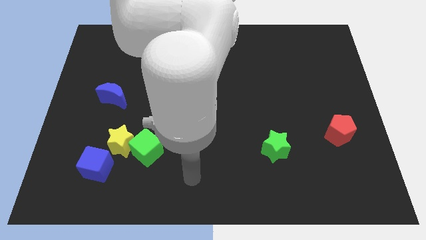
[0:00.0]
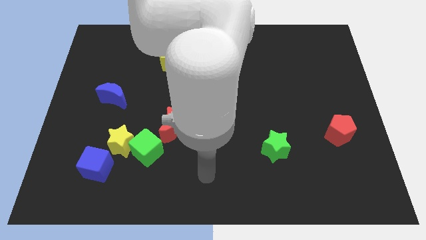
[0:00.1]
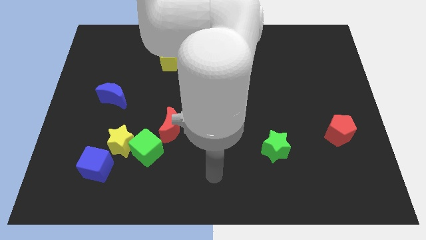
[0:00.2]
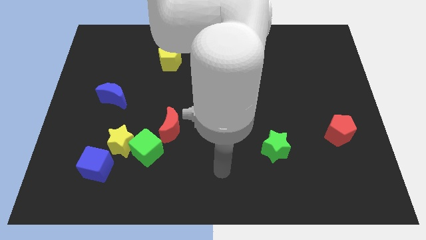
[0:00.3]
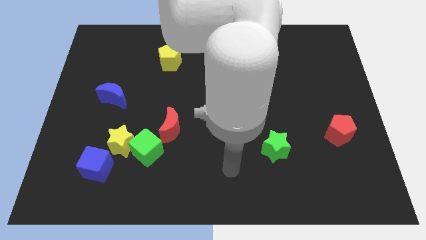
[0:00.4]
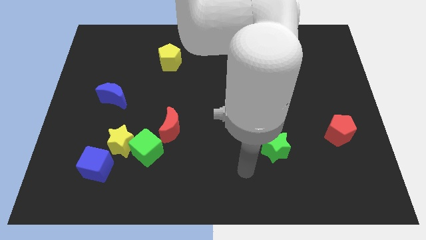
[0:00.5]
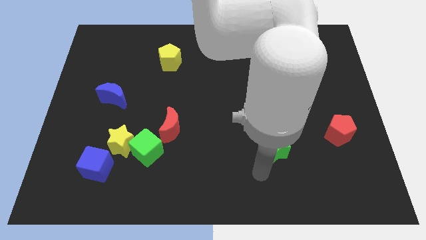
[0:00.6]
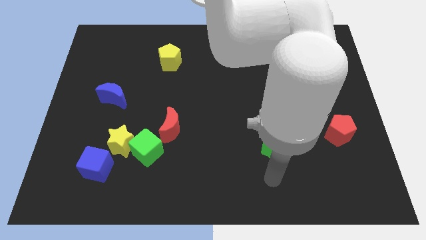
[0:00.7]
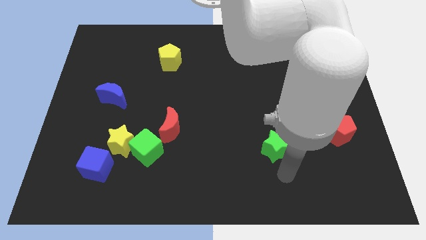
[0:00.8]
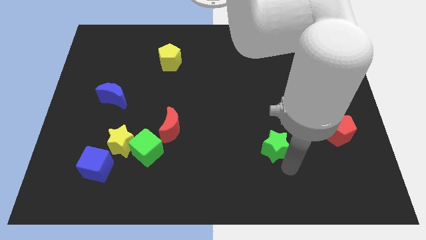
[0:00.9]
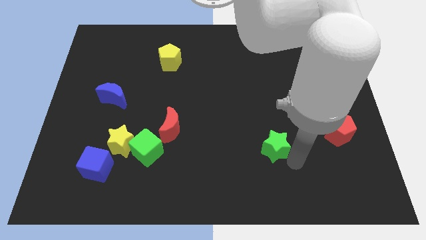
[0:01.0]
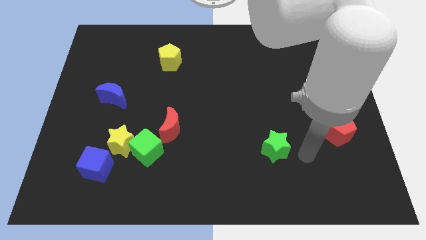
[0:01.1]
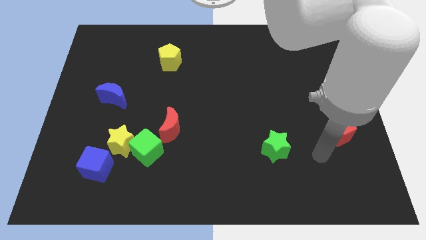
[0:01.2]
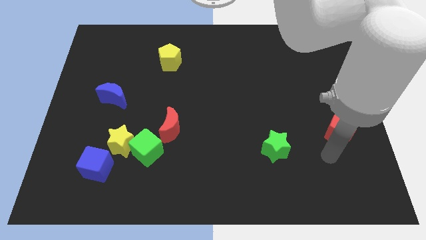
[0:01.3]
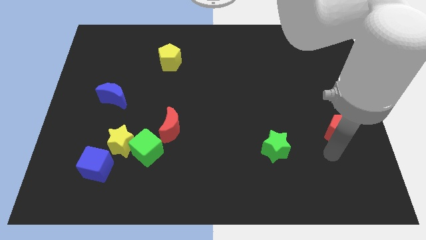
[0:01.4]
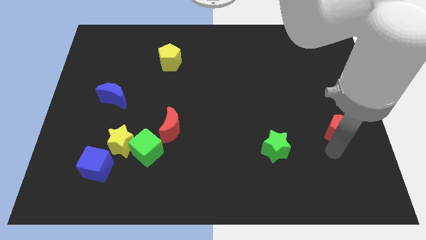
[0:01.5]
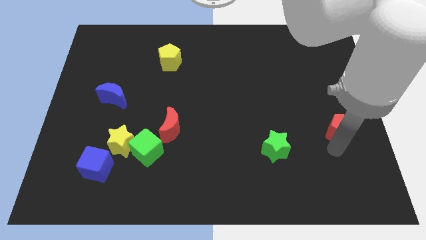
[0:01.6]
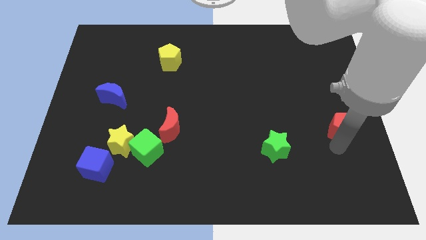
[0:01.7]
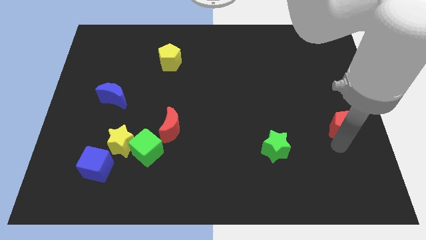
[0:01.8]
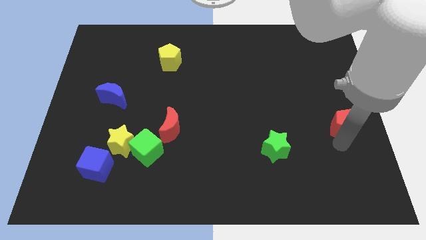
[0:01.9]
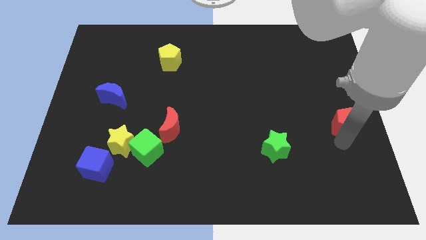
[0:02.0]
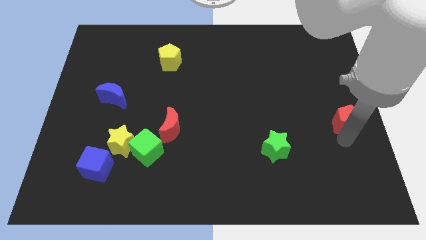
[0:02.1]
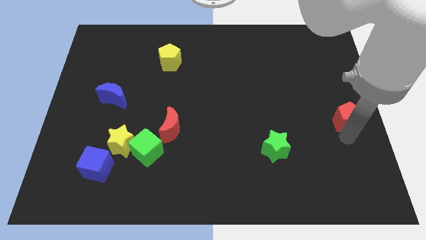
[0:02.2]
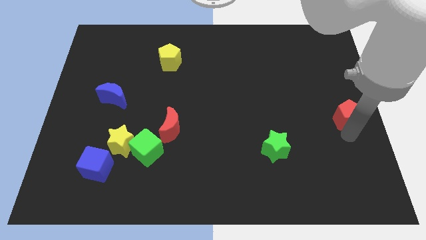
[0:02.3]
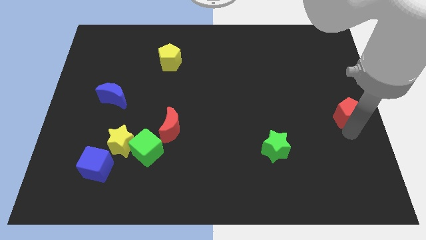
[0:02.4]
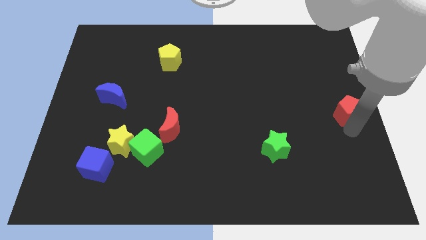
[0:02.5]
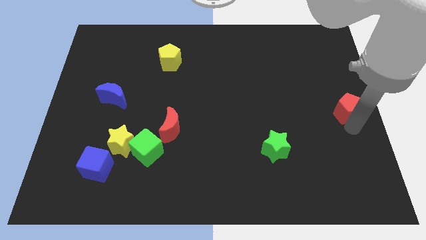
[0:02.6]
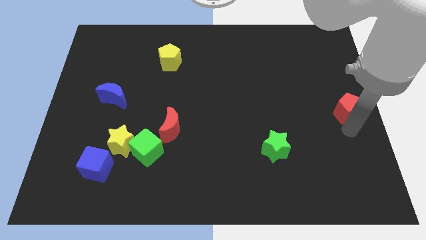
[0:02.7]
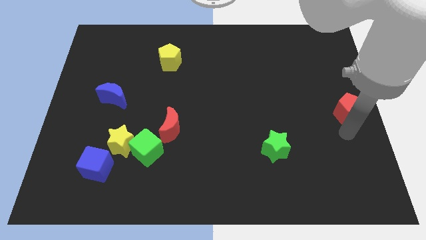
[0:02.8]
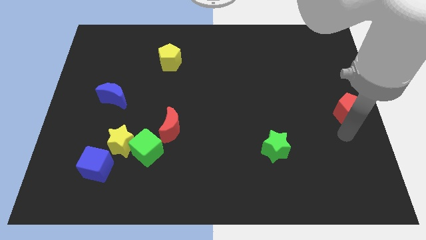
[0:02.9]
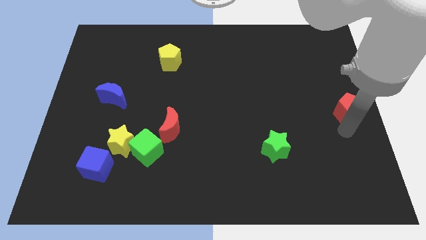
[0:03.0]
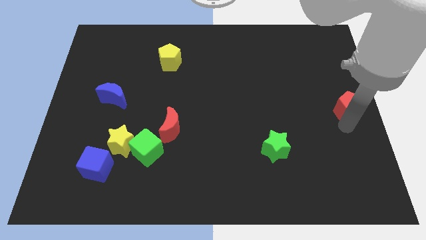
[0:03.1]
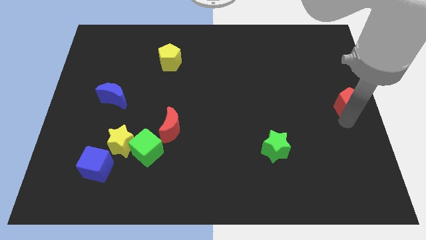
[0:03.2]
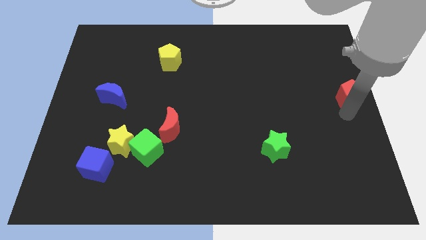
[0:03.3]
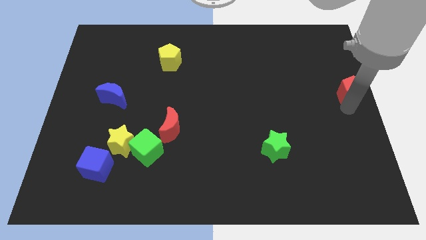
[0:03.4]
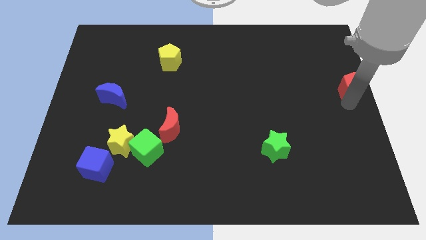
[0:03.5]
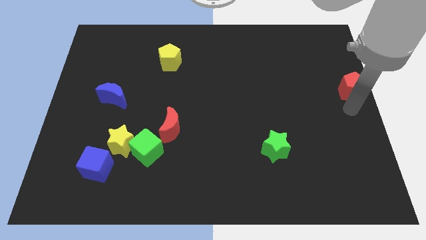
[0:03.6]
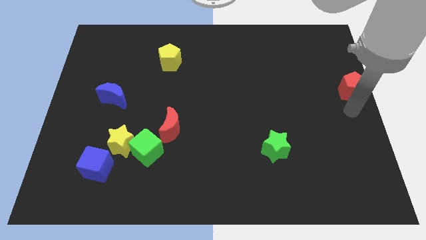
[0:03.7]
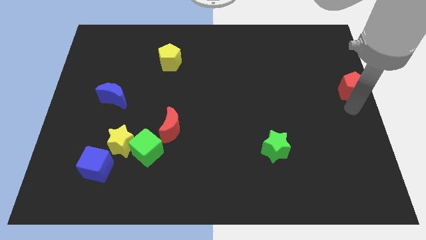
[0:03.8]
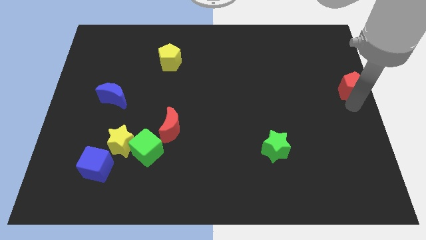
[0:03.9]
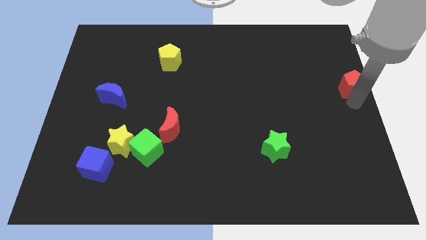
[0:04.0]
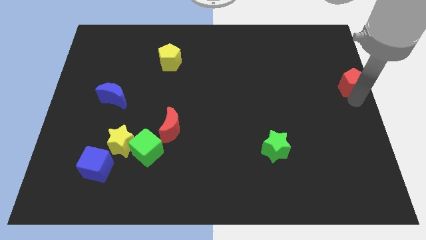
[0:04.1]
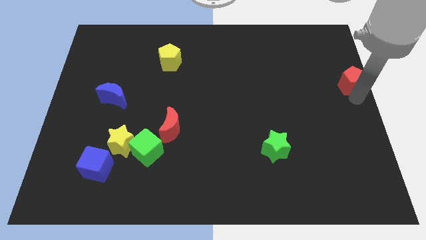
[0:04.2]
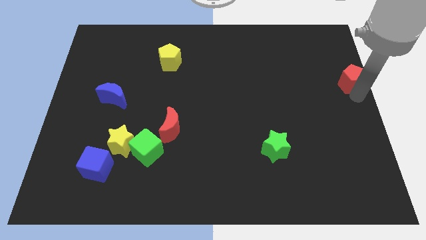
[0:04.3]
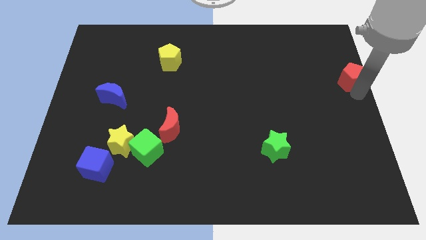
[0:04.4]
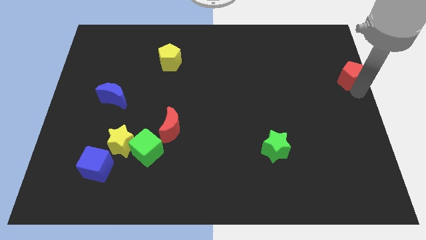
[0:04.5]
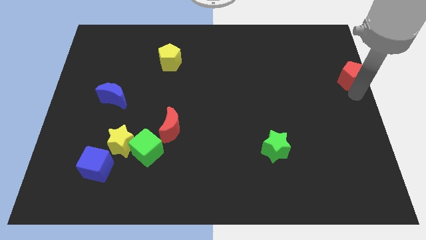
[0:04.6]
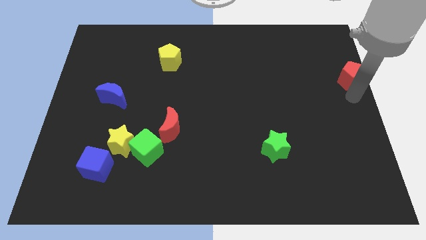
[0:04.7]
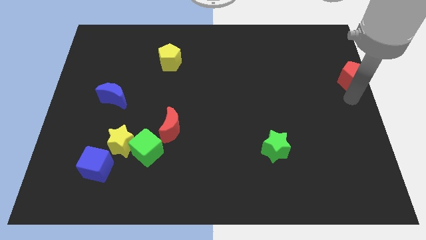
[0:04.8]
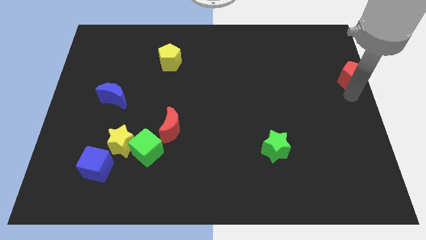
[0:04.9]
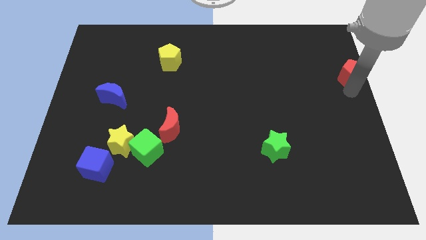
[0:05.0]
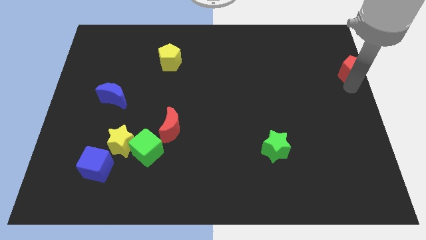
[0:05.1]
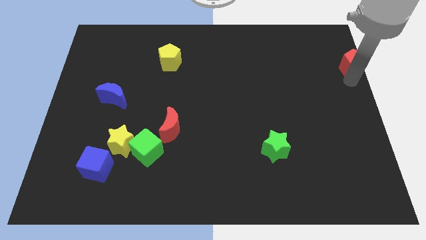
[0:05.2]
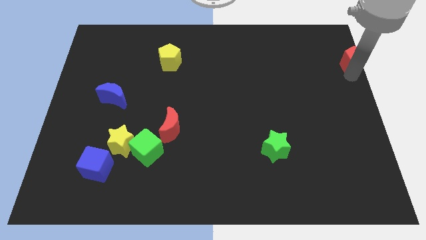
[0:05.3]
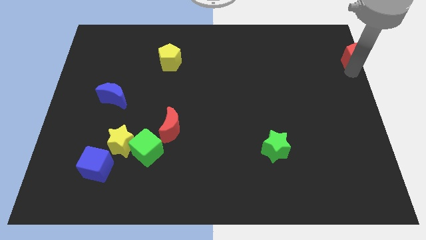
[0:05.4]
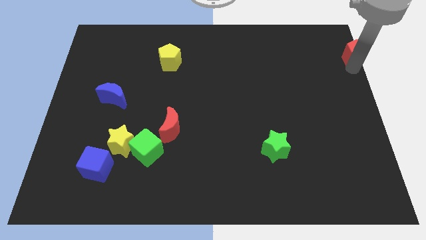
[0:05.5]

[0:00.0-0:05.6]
put the red pentagon to the upper right corner

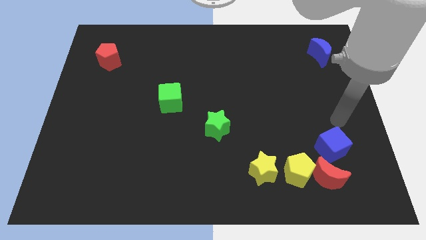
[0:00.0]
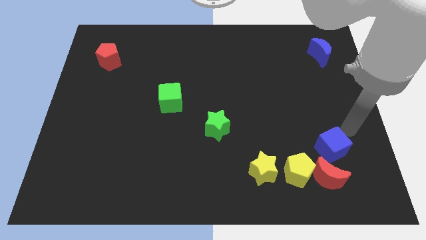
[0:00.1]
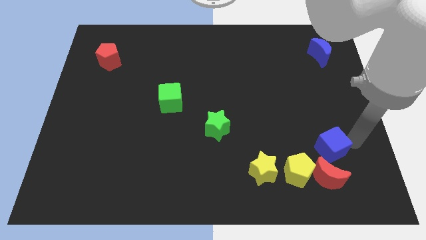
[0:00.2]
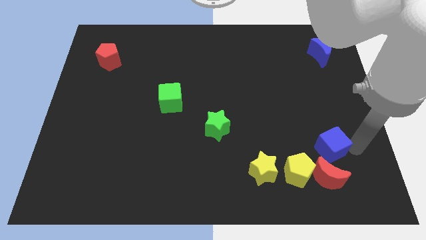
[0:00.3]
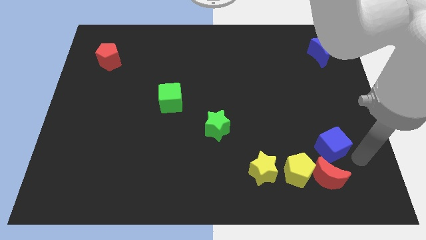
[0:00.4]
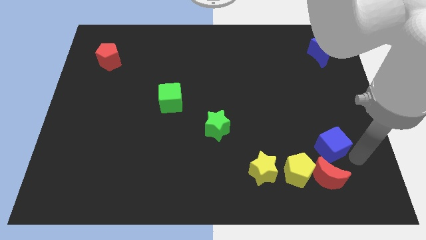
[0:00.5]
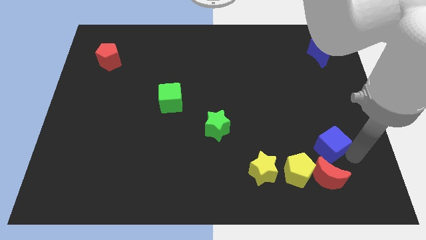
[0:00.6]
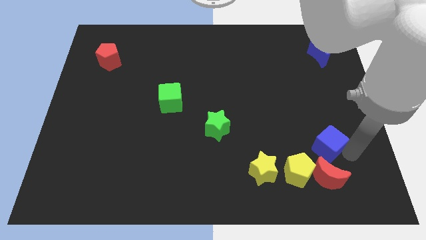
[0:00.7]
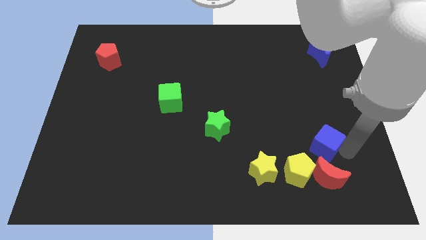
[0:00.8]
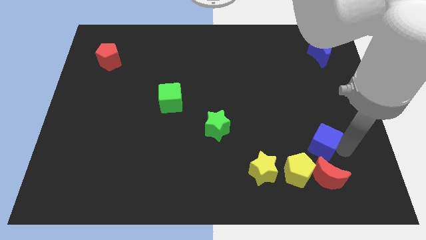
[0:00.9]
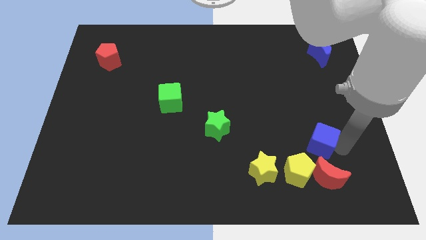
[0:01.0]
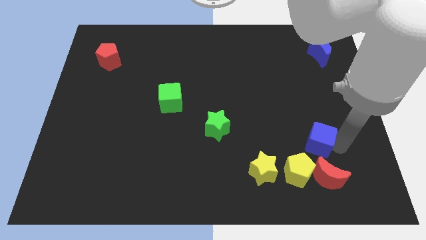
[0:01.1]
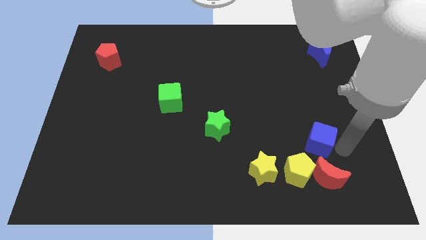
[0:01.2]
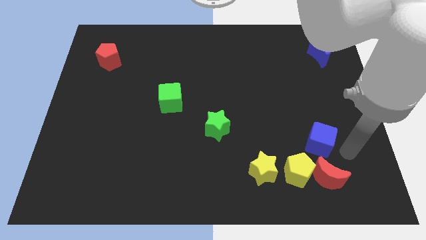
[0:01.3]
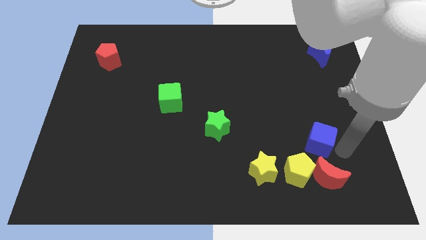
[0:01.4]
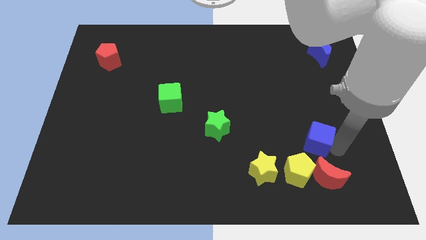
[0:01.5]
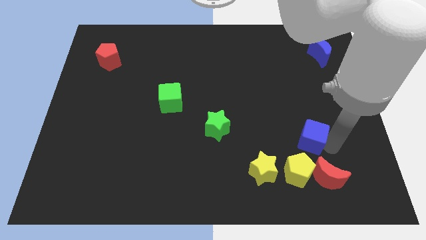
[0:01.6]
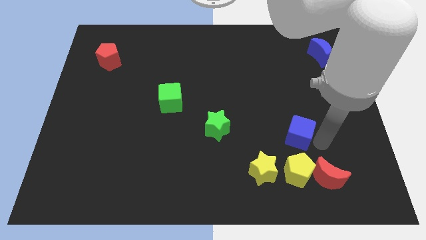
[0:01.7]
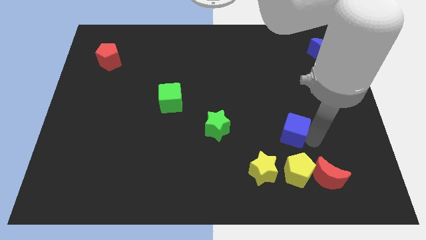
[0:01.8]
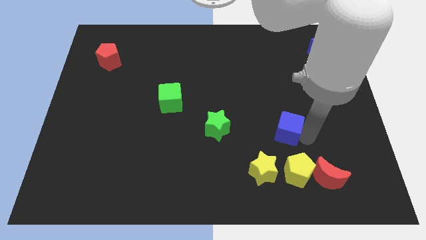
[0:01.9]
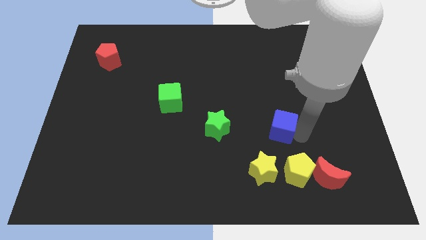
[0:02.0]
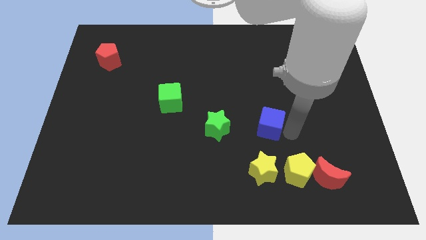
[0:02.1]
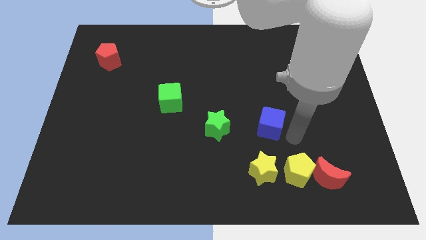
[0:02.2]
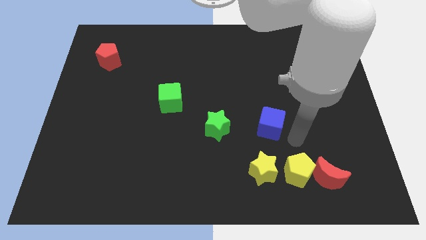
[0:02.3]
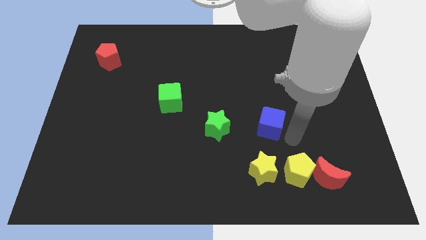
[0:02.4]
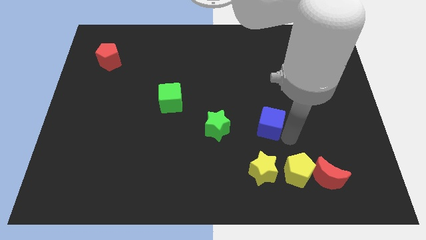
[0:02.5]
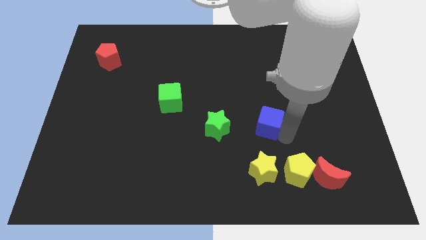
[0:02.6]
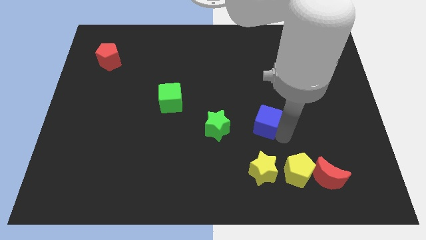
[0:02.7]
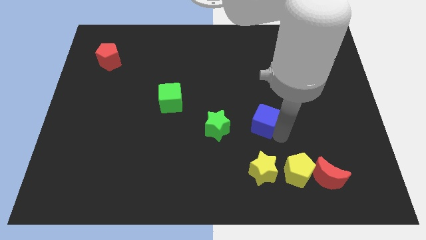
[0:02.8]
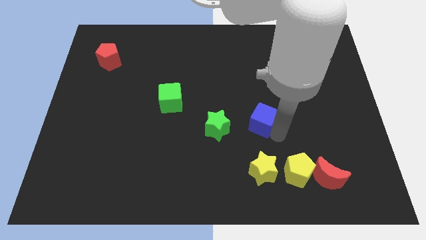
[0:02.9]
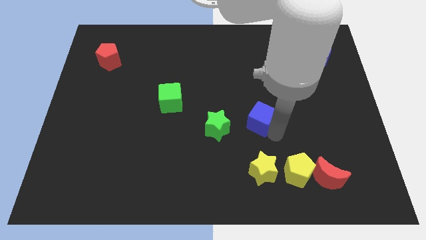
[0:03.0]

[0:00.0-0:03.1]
push the blue cube to the center
